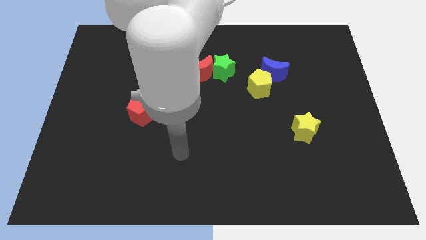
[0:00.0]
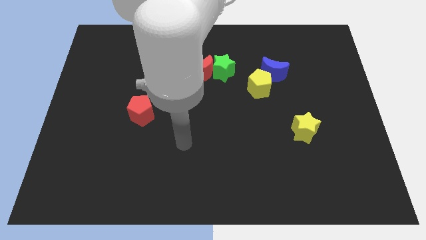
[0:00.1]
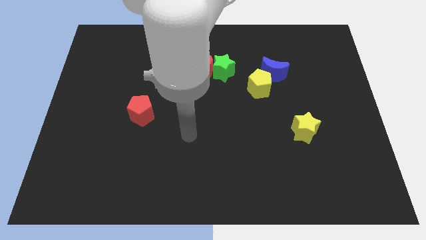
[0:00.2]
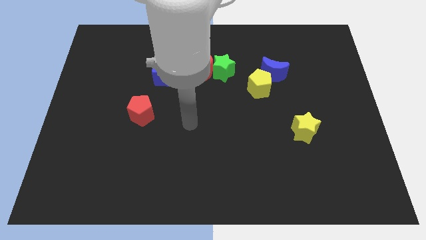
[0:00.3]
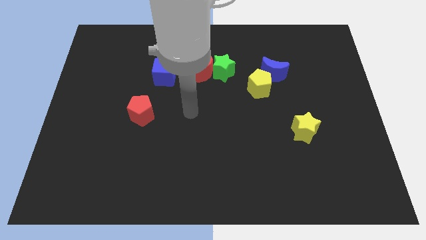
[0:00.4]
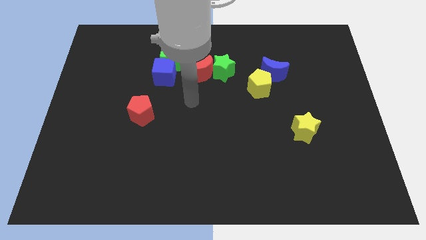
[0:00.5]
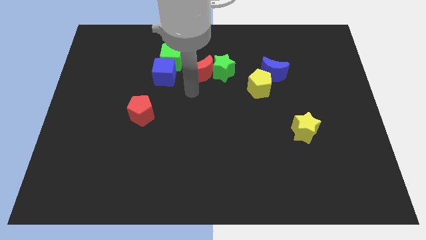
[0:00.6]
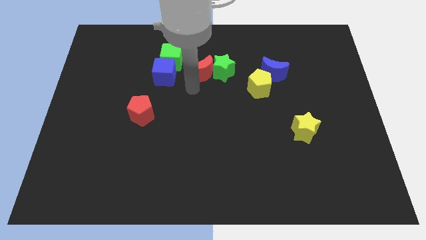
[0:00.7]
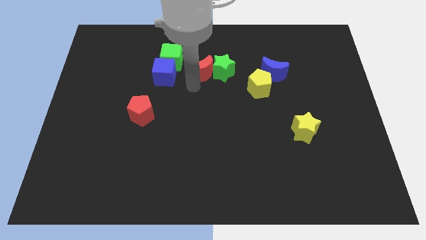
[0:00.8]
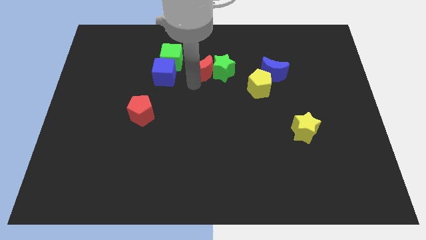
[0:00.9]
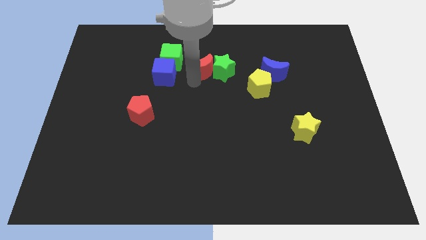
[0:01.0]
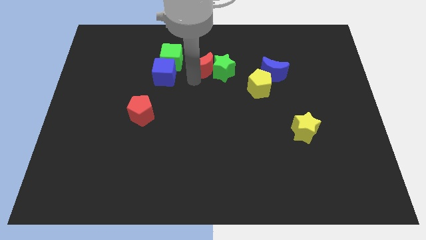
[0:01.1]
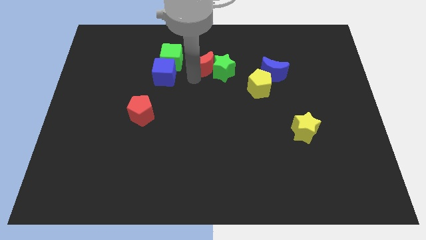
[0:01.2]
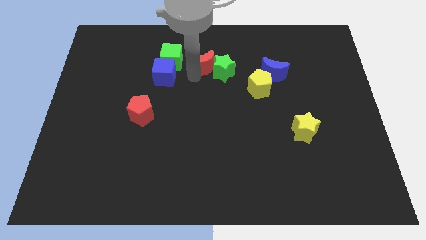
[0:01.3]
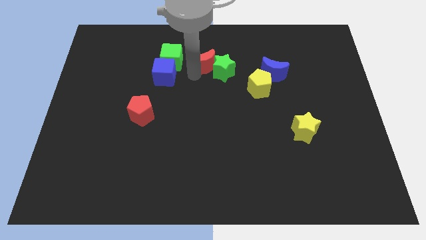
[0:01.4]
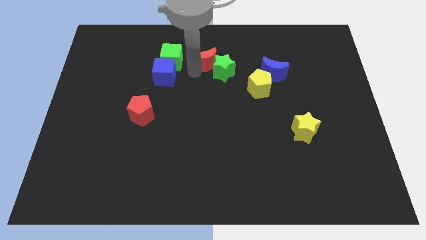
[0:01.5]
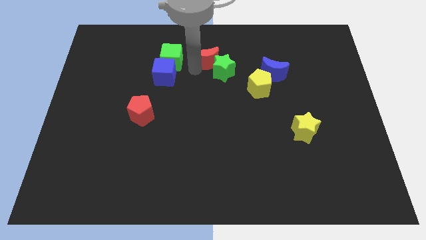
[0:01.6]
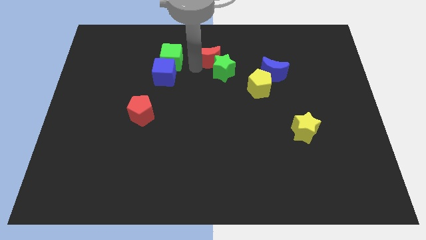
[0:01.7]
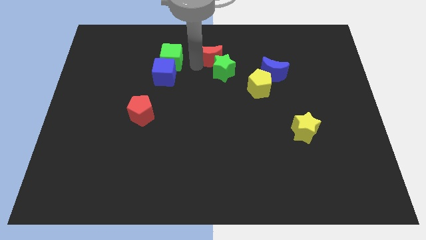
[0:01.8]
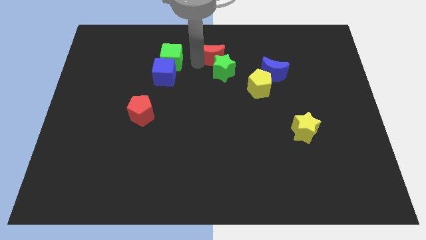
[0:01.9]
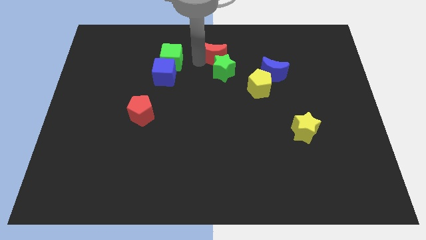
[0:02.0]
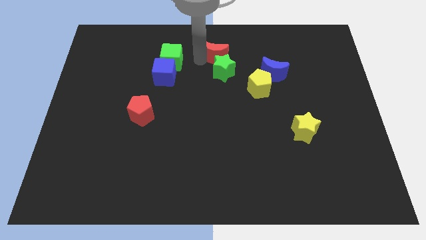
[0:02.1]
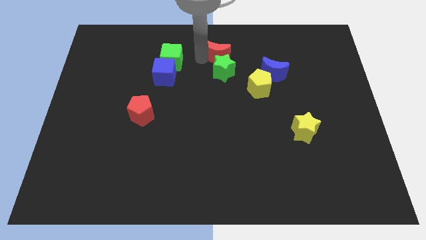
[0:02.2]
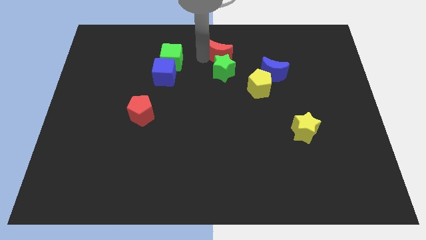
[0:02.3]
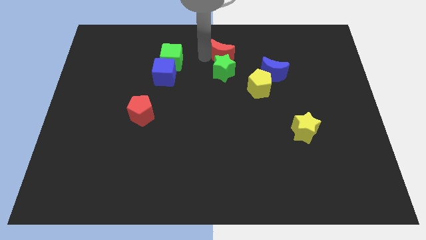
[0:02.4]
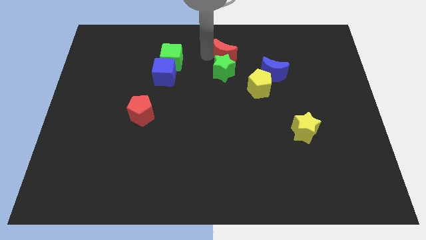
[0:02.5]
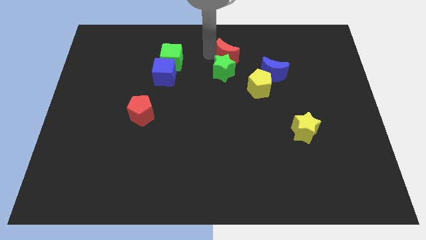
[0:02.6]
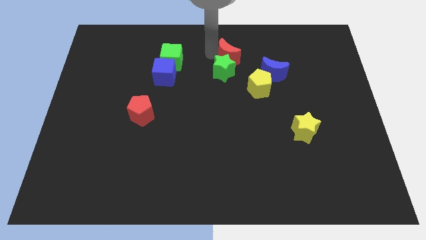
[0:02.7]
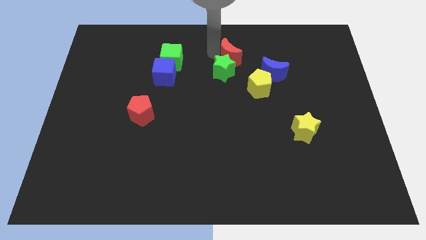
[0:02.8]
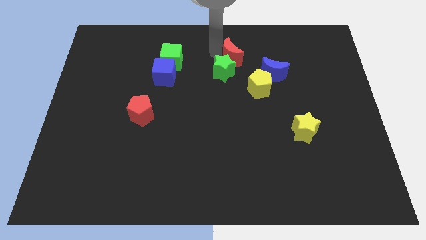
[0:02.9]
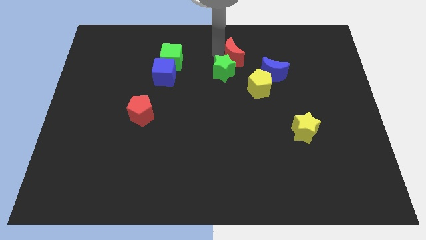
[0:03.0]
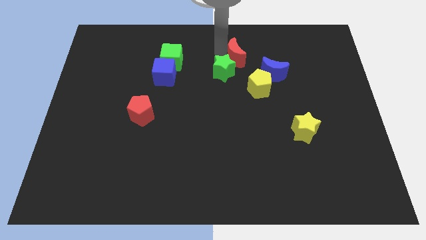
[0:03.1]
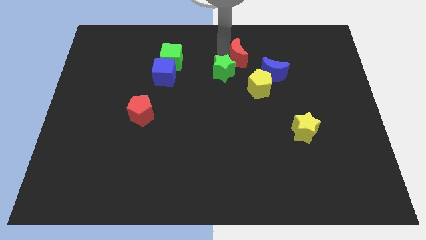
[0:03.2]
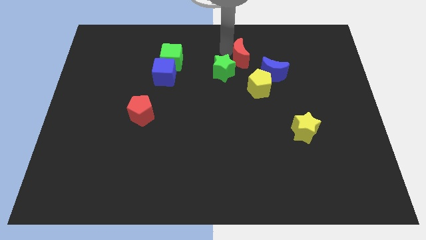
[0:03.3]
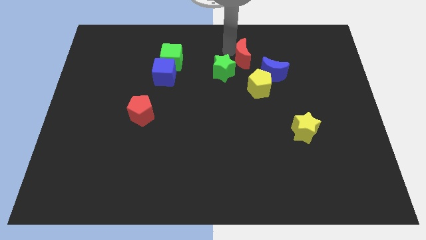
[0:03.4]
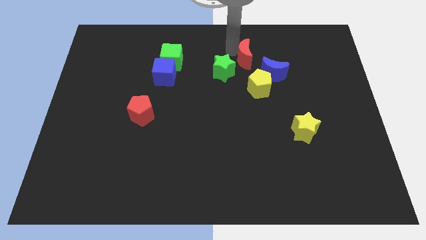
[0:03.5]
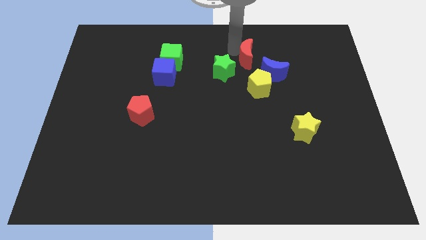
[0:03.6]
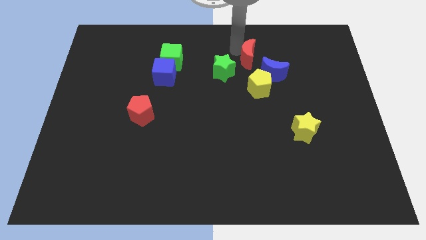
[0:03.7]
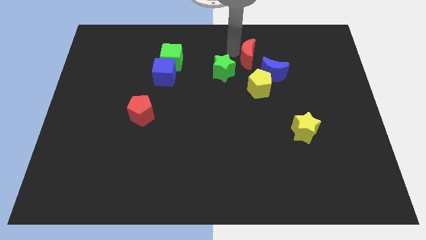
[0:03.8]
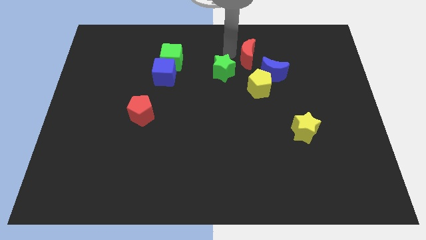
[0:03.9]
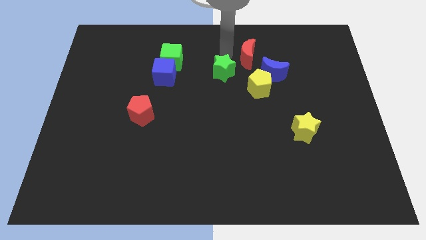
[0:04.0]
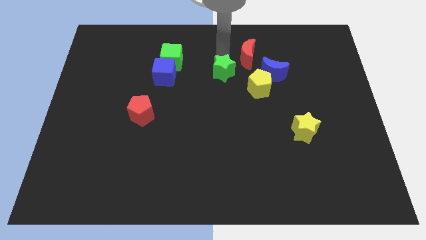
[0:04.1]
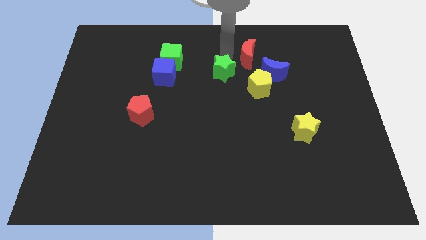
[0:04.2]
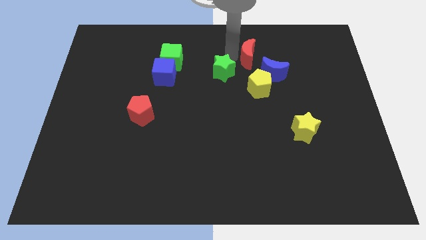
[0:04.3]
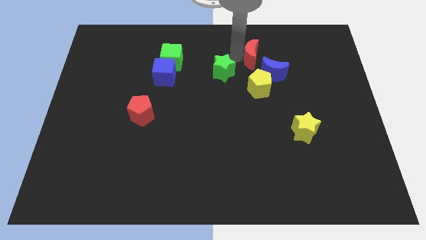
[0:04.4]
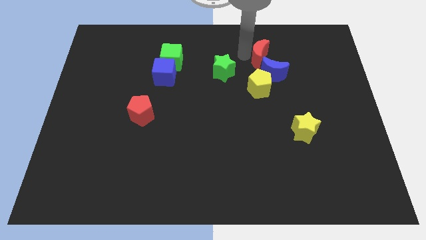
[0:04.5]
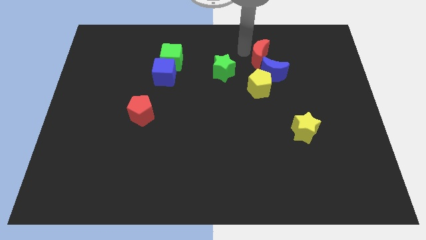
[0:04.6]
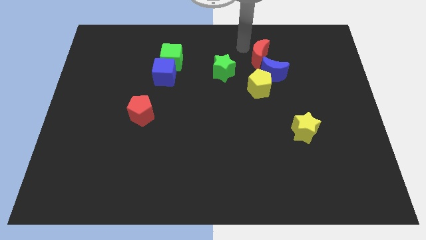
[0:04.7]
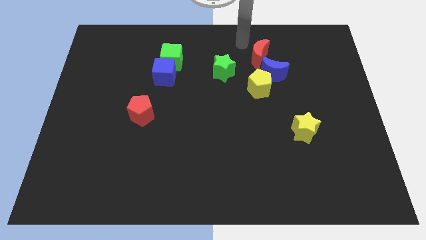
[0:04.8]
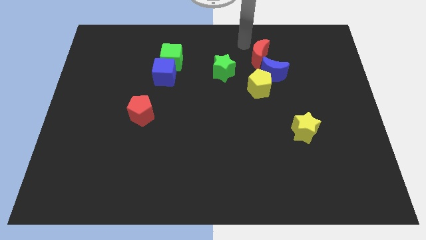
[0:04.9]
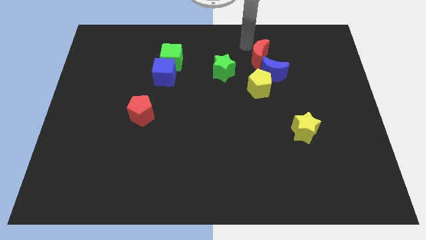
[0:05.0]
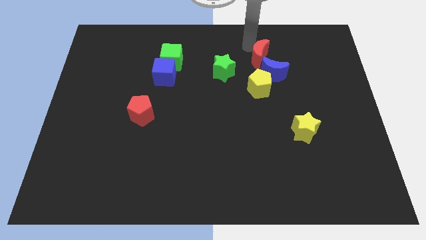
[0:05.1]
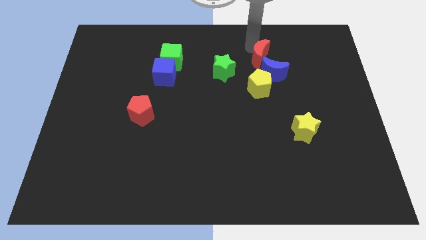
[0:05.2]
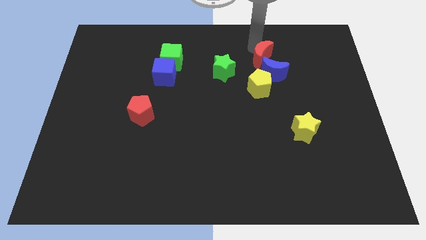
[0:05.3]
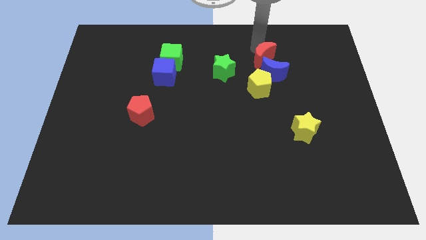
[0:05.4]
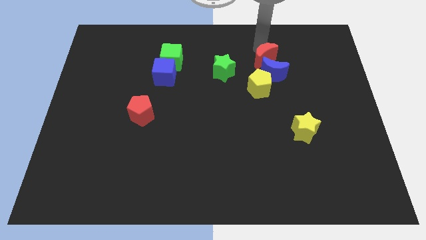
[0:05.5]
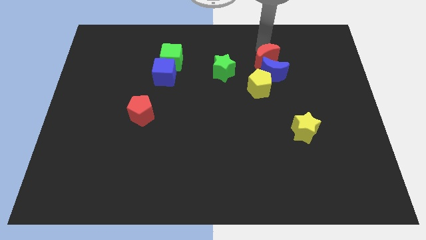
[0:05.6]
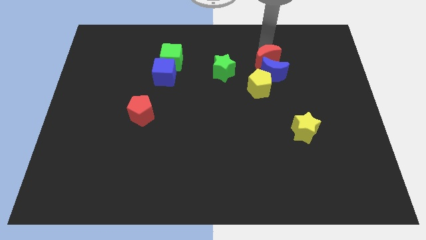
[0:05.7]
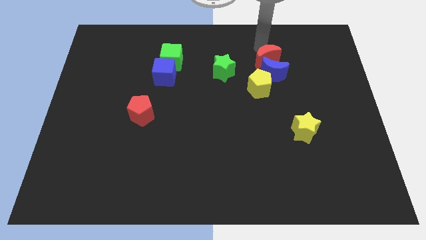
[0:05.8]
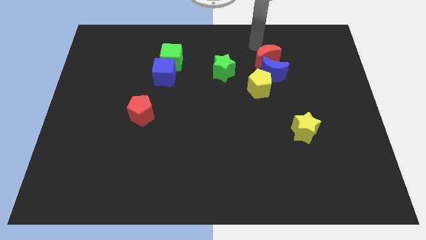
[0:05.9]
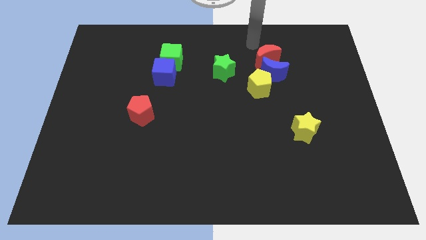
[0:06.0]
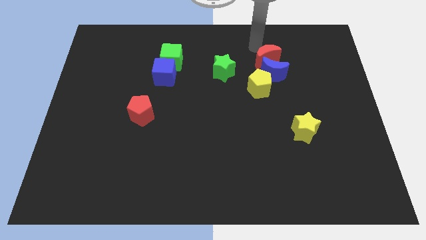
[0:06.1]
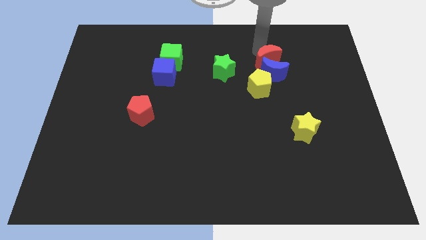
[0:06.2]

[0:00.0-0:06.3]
push the red moon to the top right of the yellow pentagon

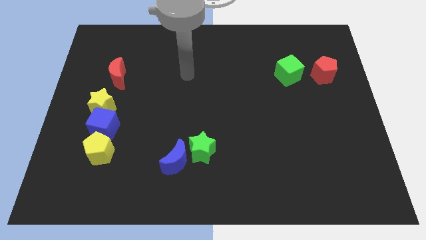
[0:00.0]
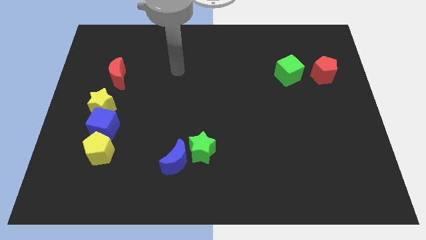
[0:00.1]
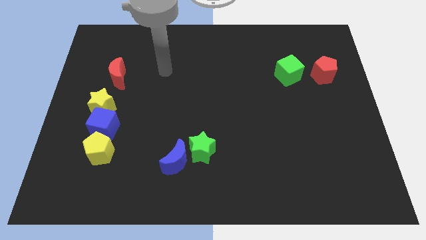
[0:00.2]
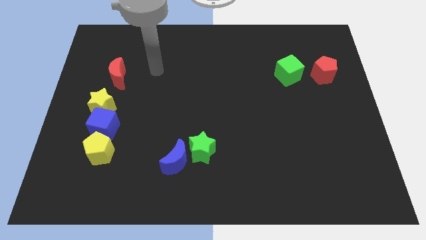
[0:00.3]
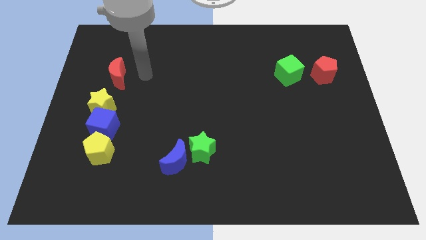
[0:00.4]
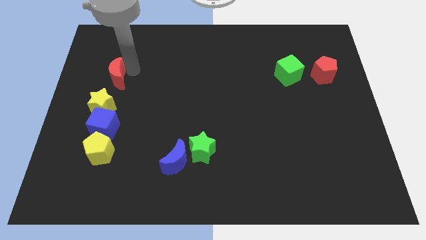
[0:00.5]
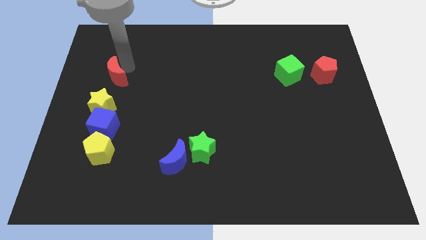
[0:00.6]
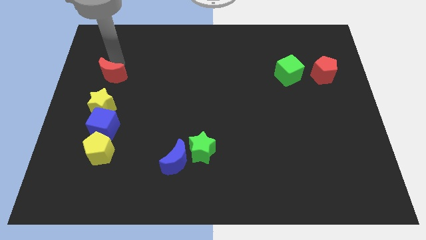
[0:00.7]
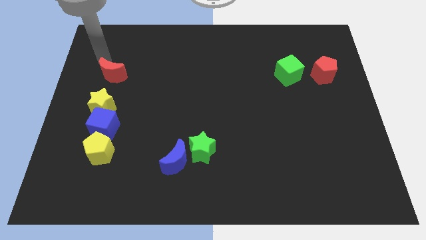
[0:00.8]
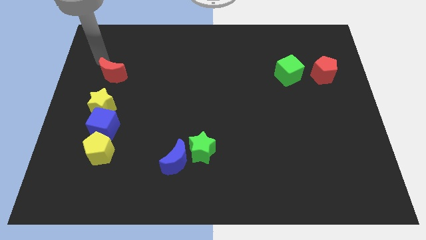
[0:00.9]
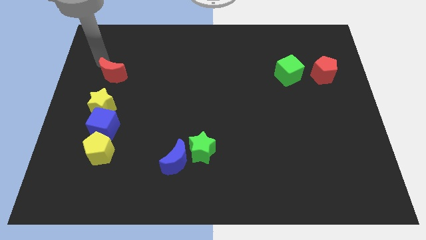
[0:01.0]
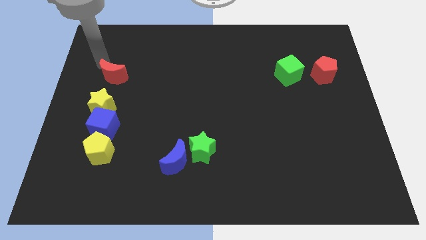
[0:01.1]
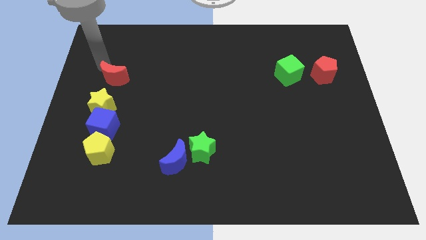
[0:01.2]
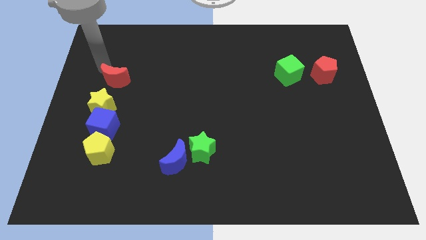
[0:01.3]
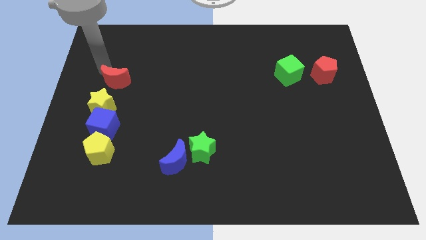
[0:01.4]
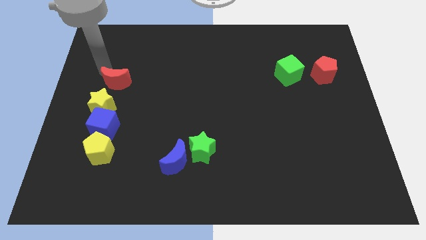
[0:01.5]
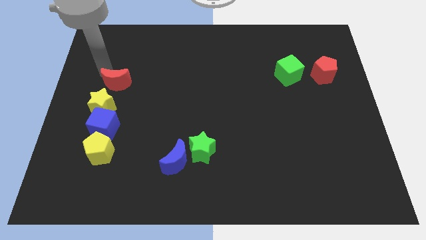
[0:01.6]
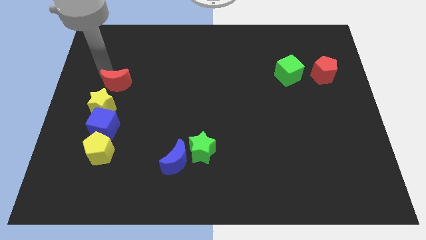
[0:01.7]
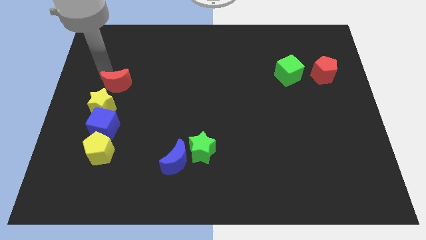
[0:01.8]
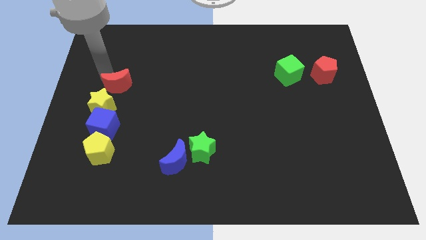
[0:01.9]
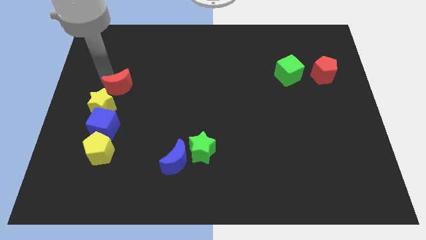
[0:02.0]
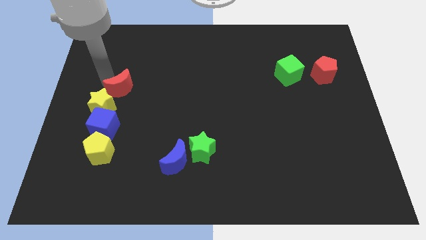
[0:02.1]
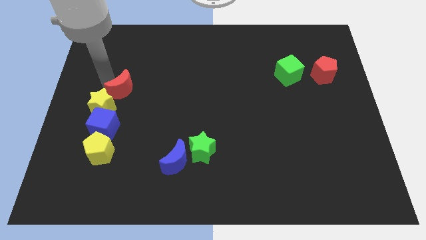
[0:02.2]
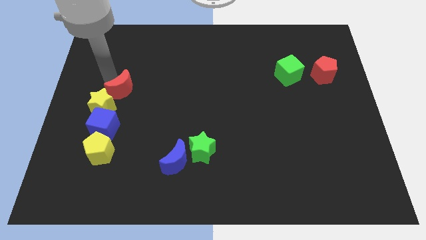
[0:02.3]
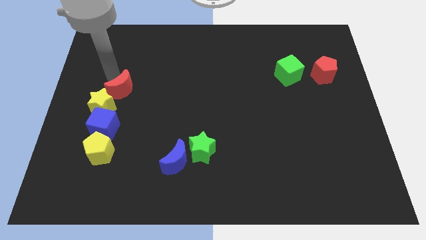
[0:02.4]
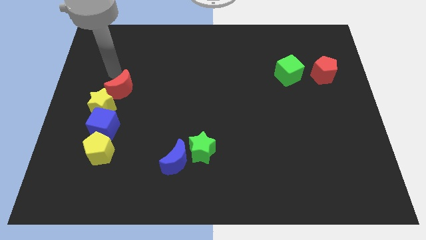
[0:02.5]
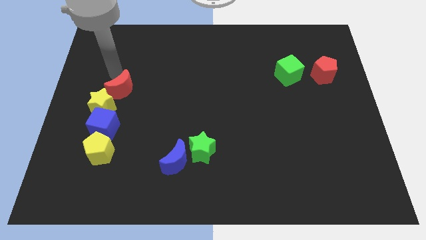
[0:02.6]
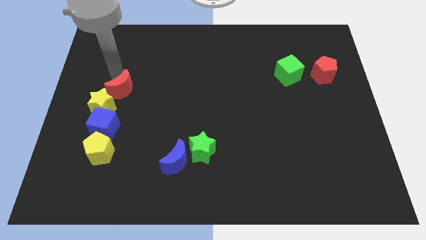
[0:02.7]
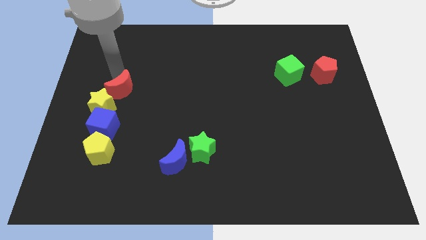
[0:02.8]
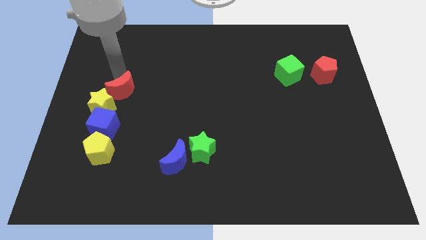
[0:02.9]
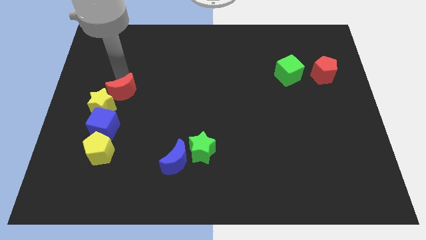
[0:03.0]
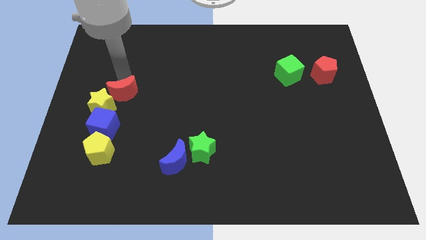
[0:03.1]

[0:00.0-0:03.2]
slide the red moon to the top right of the blue cube
